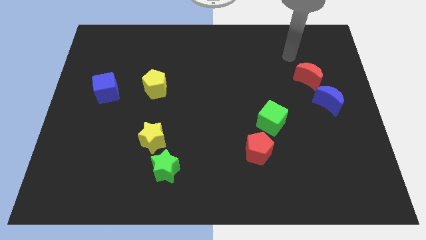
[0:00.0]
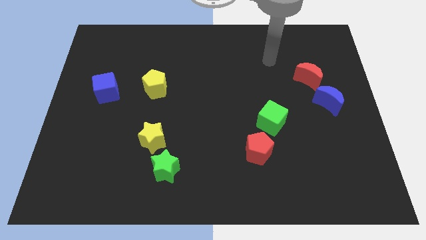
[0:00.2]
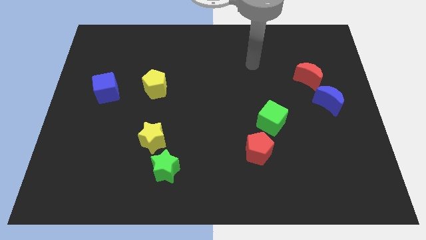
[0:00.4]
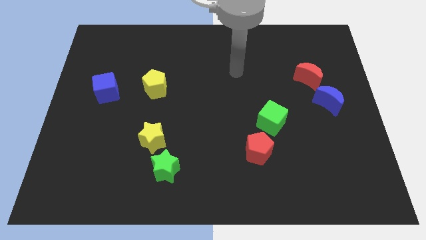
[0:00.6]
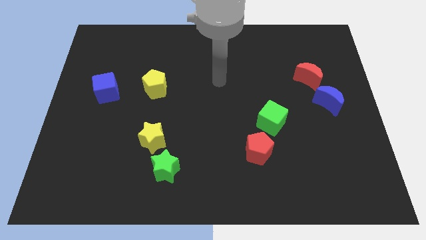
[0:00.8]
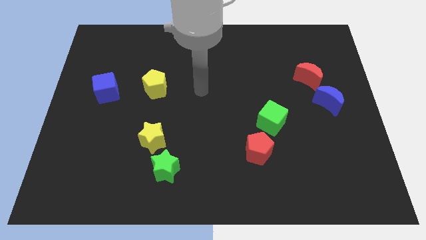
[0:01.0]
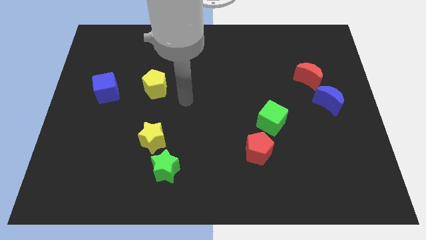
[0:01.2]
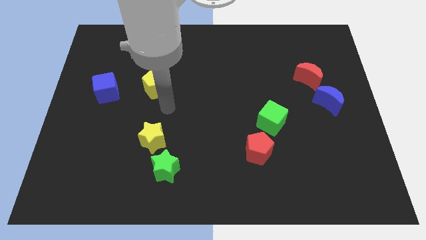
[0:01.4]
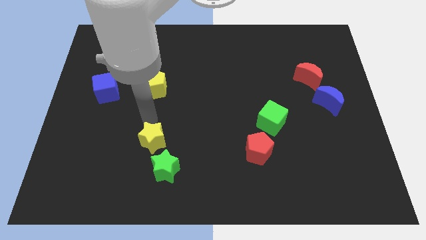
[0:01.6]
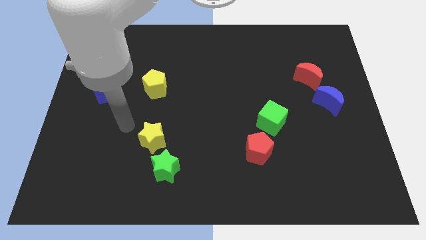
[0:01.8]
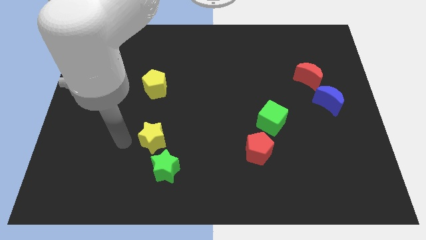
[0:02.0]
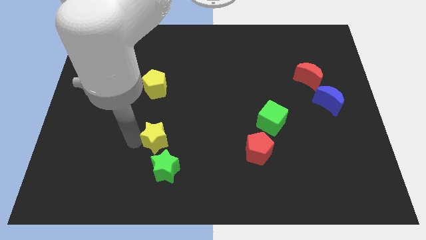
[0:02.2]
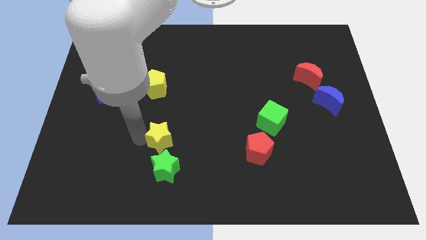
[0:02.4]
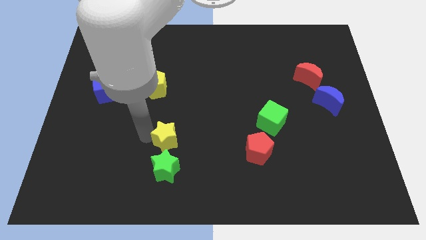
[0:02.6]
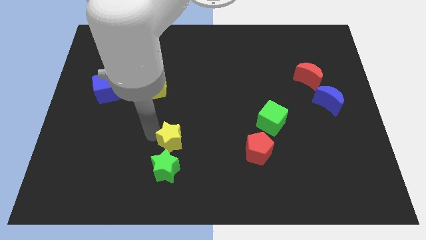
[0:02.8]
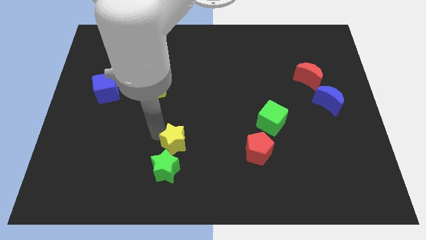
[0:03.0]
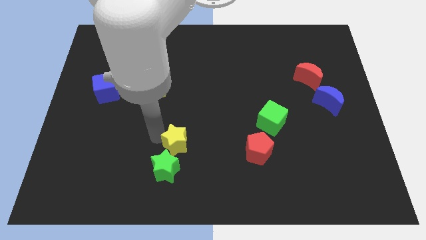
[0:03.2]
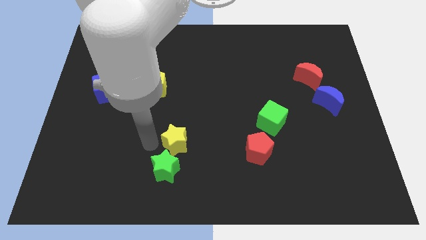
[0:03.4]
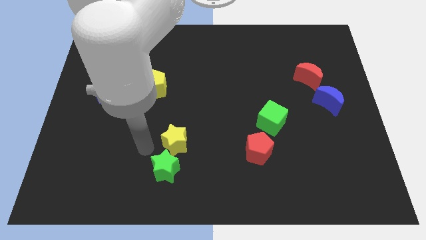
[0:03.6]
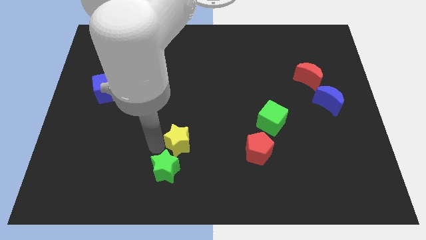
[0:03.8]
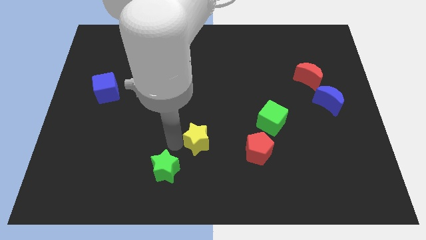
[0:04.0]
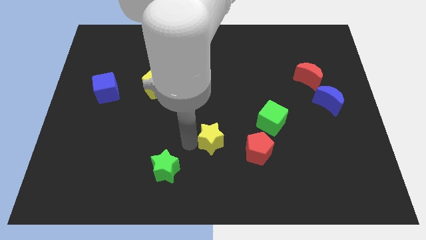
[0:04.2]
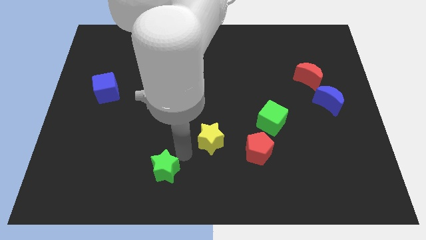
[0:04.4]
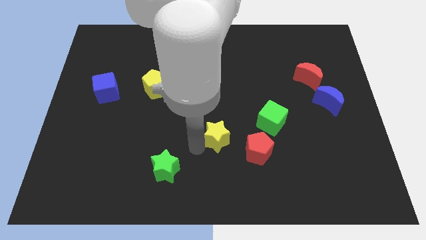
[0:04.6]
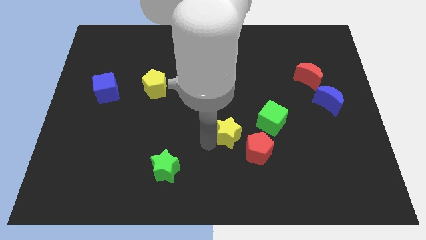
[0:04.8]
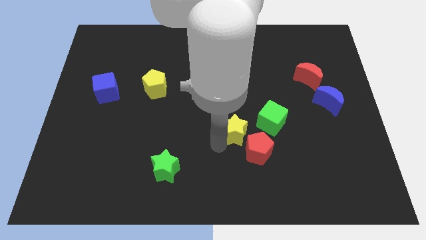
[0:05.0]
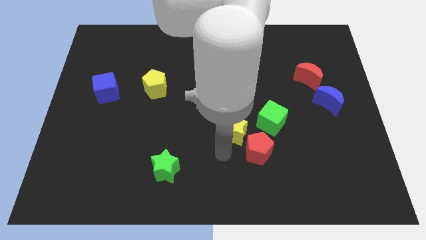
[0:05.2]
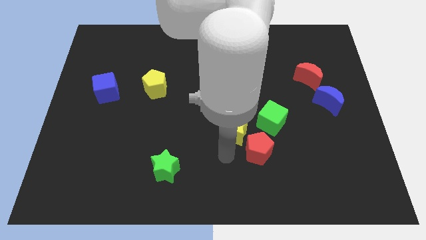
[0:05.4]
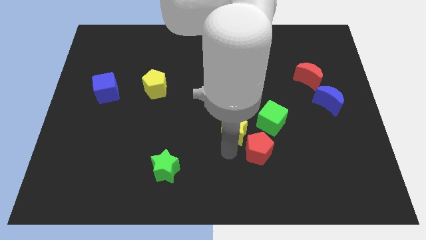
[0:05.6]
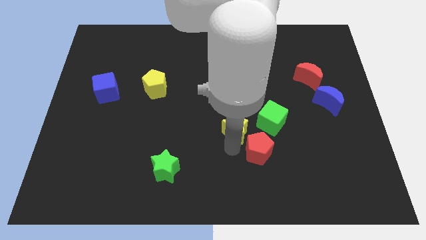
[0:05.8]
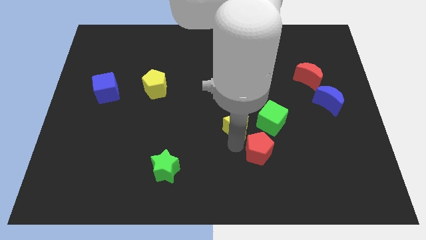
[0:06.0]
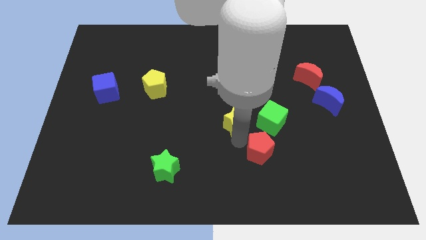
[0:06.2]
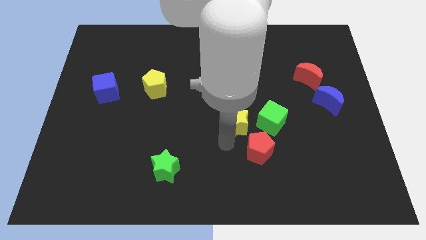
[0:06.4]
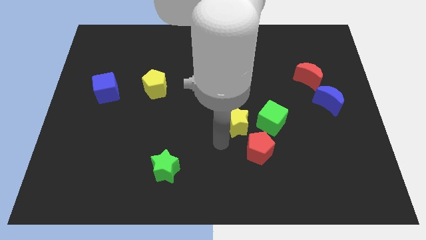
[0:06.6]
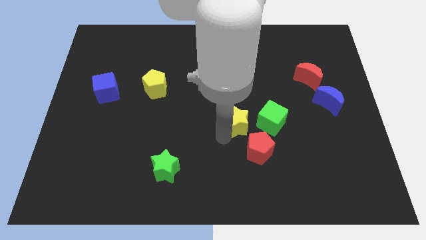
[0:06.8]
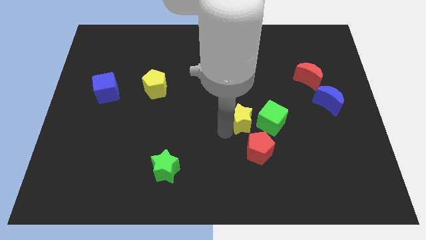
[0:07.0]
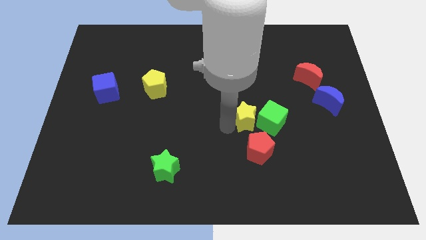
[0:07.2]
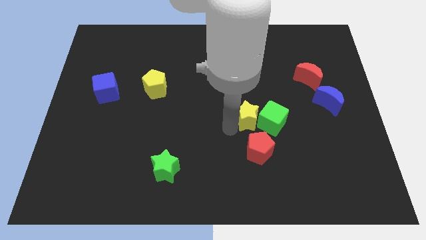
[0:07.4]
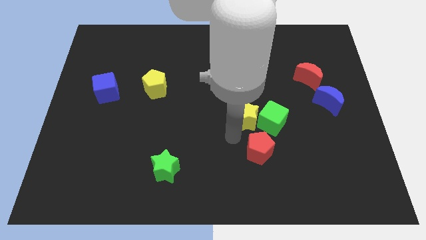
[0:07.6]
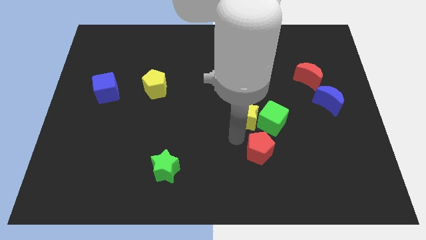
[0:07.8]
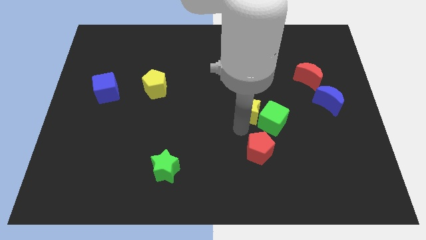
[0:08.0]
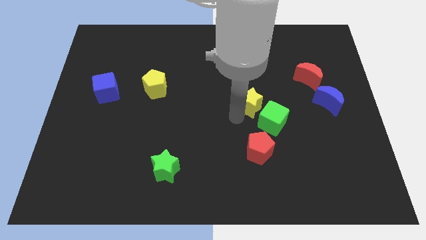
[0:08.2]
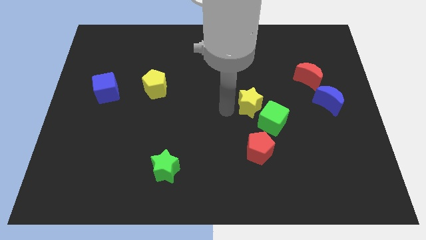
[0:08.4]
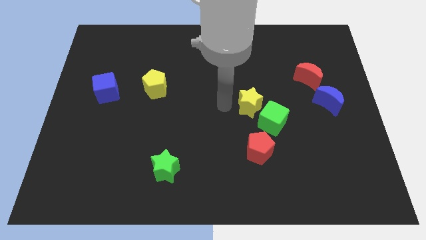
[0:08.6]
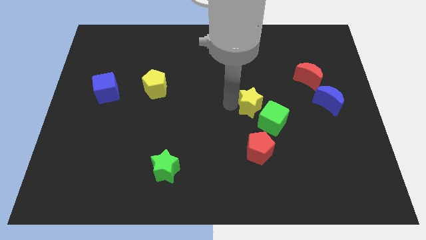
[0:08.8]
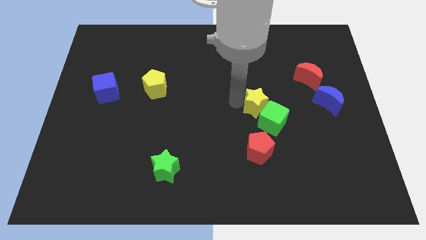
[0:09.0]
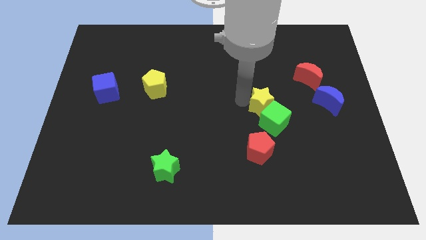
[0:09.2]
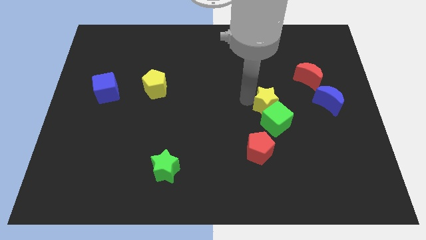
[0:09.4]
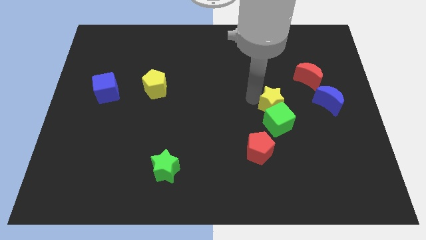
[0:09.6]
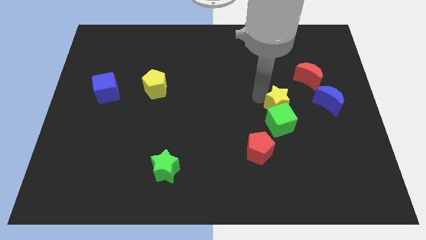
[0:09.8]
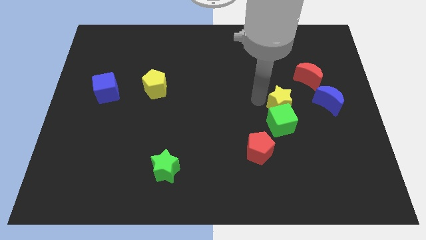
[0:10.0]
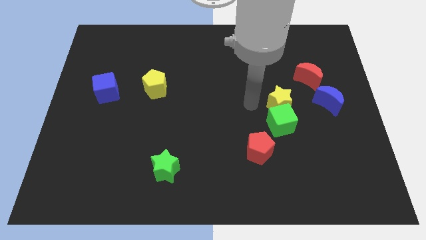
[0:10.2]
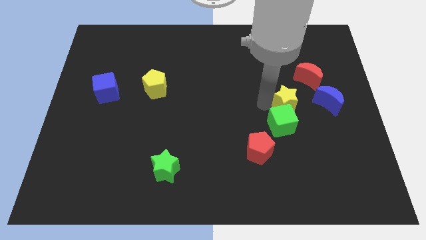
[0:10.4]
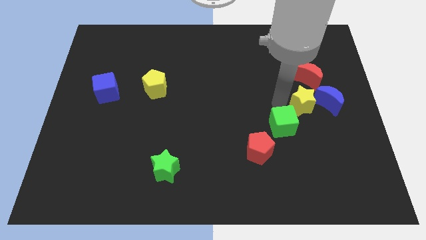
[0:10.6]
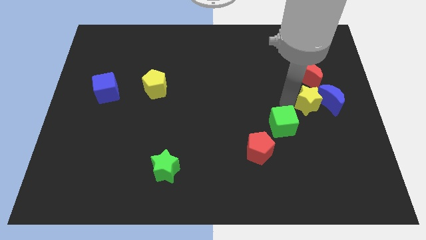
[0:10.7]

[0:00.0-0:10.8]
slide the yellow star to the blue moon

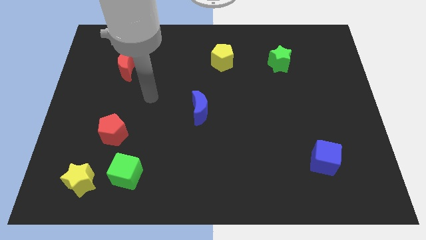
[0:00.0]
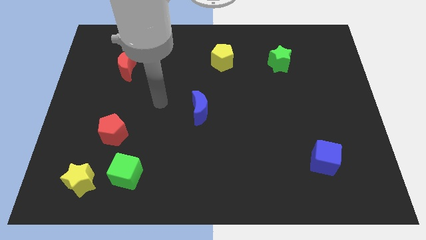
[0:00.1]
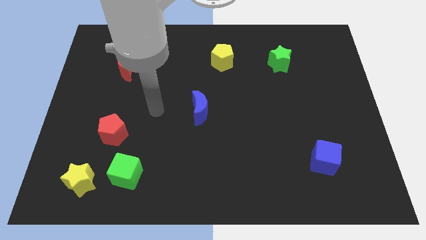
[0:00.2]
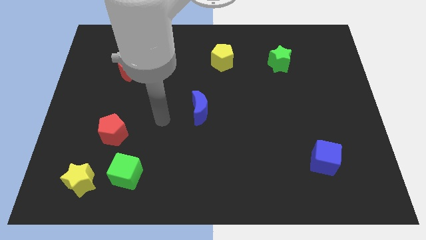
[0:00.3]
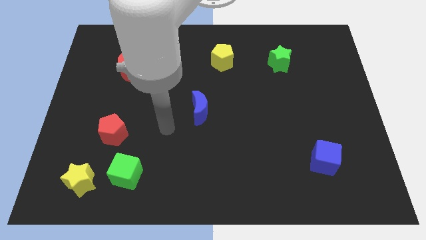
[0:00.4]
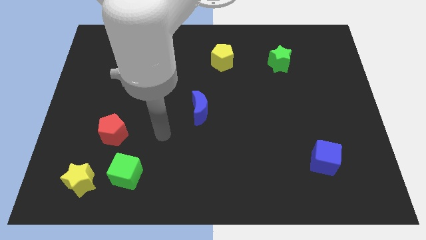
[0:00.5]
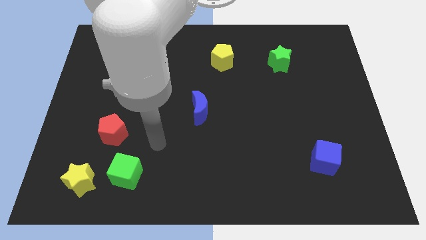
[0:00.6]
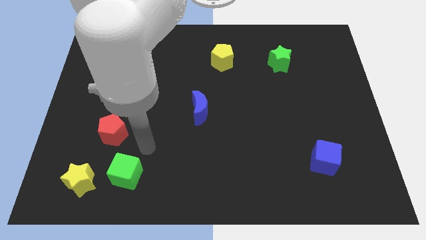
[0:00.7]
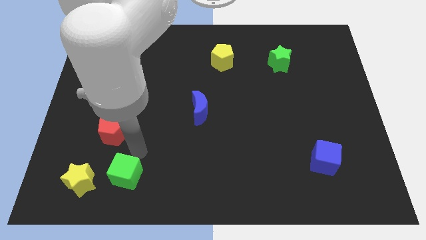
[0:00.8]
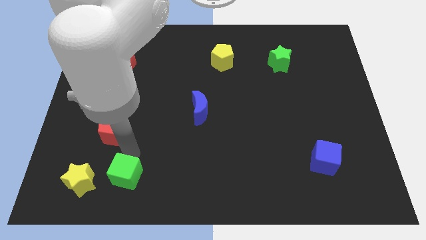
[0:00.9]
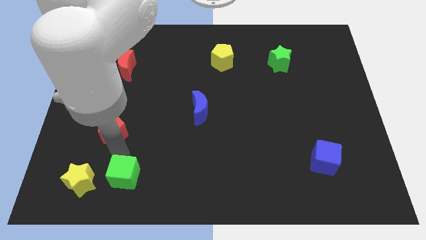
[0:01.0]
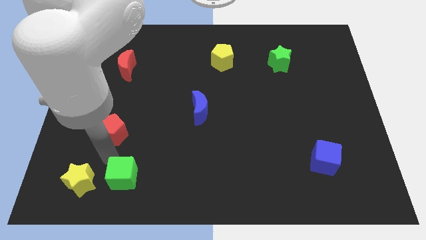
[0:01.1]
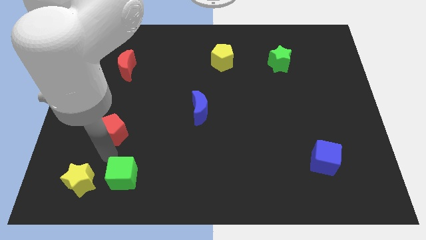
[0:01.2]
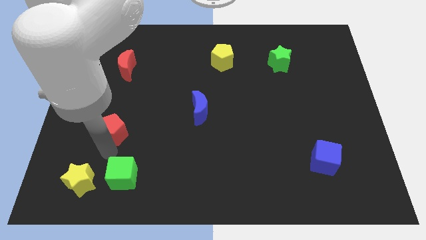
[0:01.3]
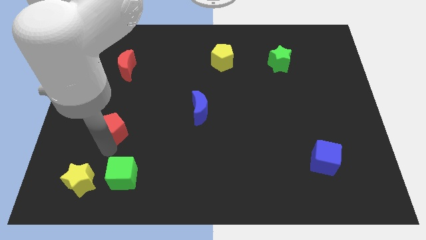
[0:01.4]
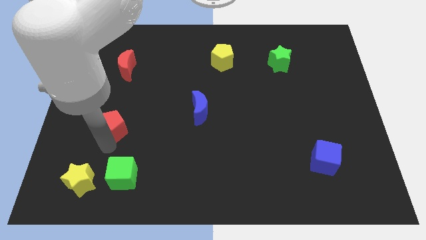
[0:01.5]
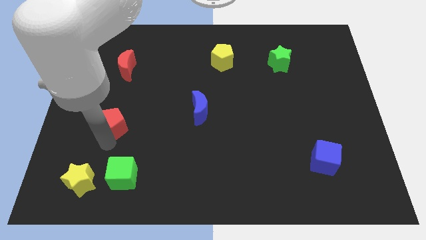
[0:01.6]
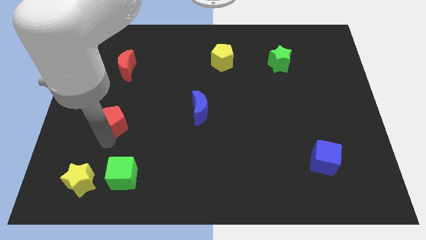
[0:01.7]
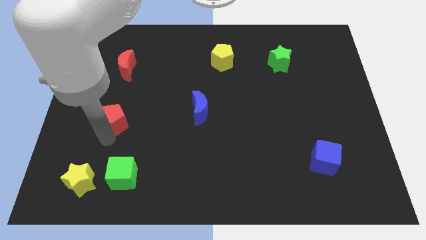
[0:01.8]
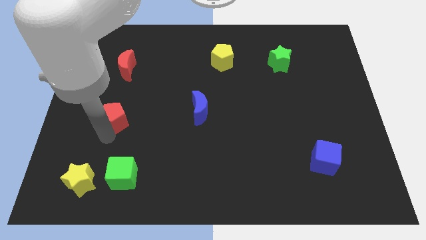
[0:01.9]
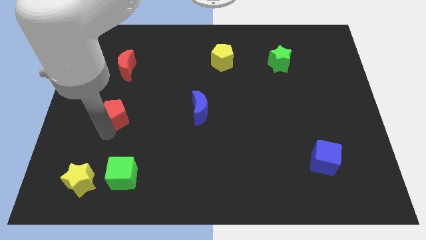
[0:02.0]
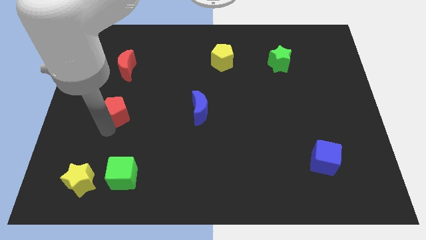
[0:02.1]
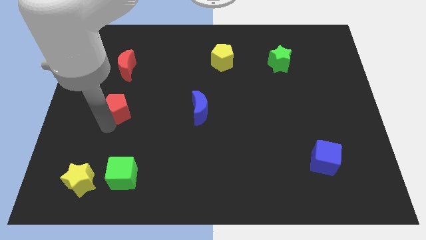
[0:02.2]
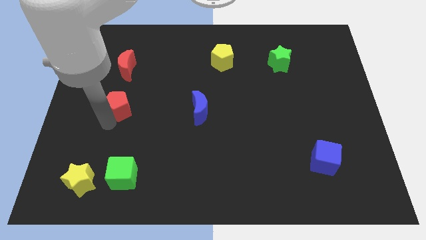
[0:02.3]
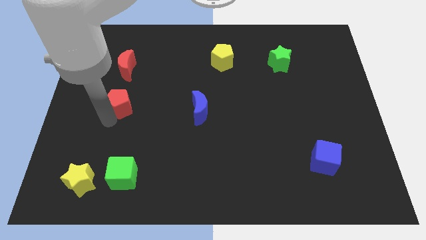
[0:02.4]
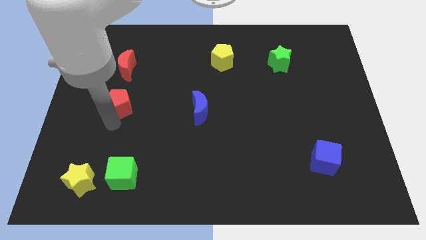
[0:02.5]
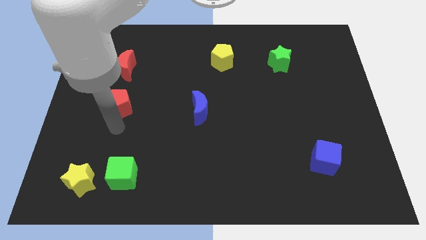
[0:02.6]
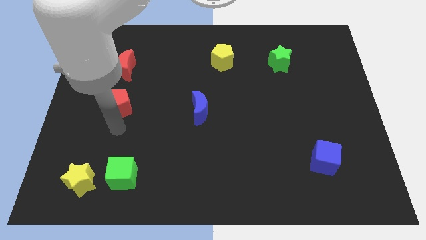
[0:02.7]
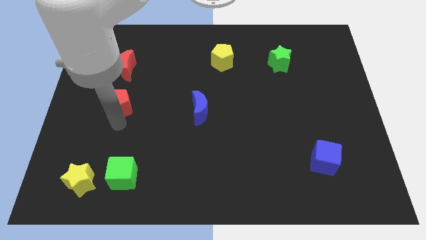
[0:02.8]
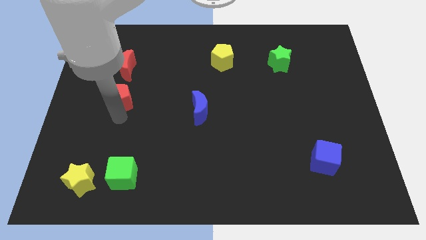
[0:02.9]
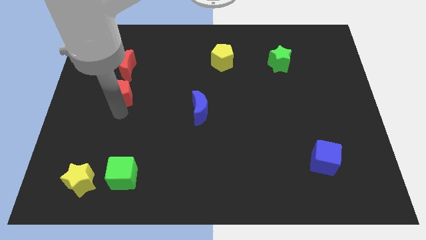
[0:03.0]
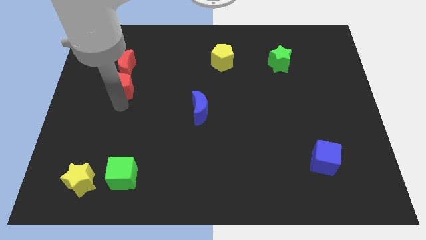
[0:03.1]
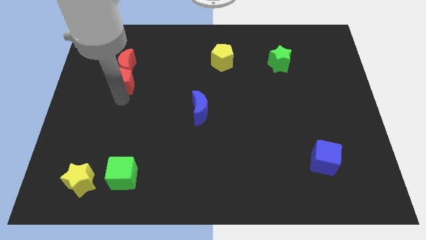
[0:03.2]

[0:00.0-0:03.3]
move the red pentagon next to the red moon
